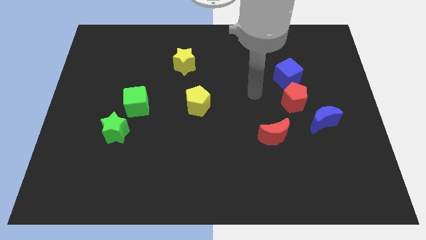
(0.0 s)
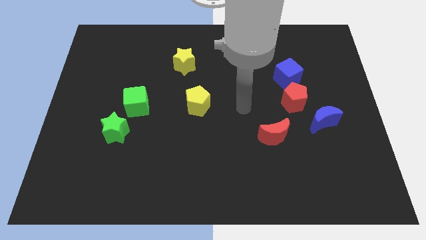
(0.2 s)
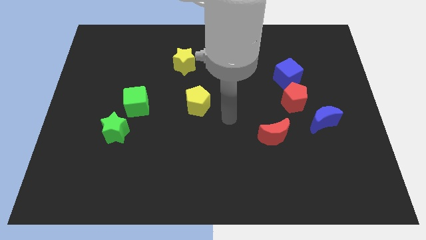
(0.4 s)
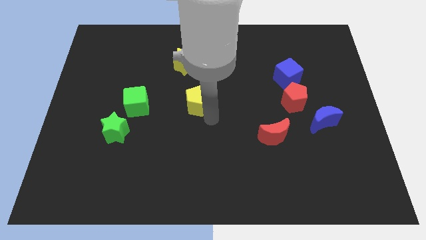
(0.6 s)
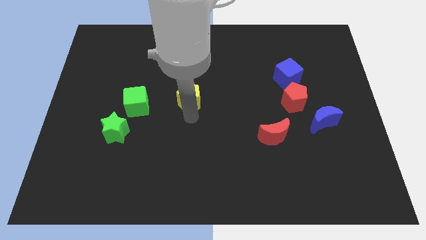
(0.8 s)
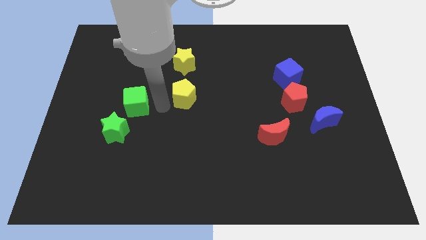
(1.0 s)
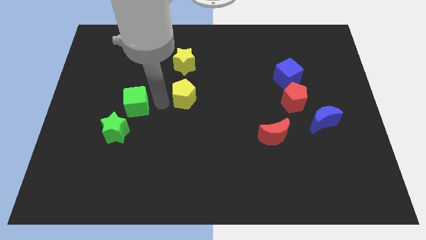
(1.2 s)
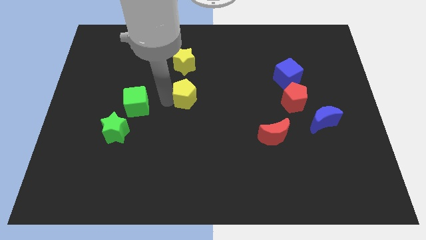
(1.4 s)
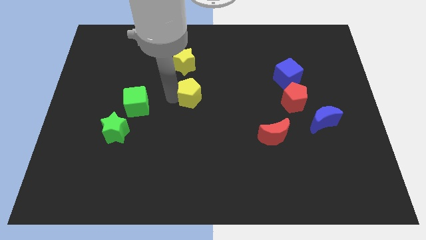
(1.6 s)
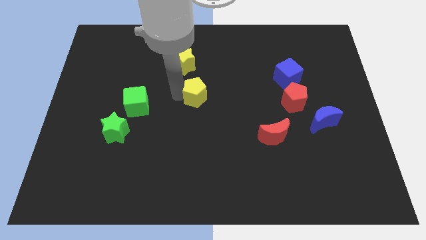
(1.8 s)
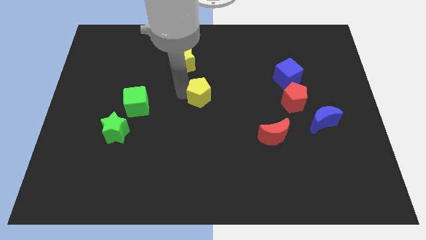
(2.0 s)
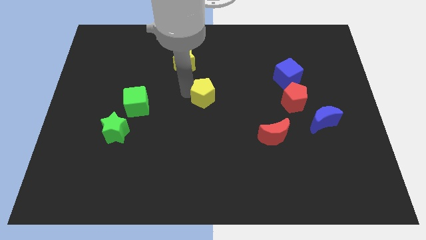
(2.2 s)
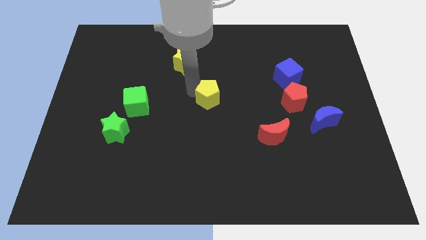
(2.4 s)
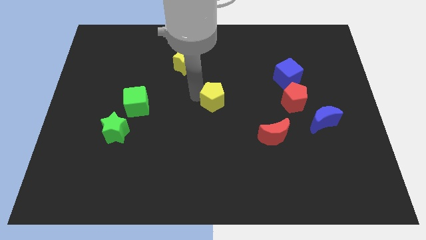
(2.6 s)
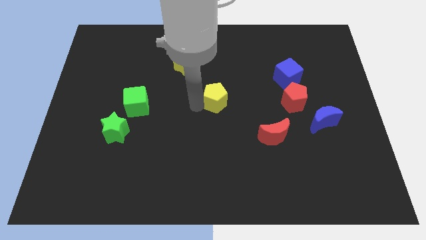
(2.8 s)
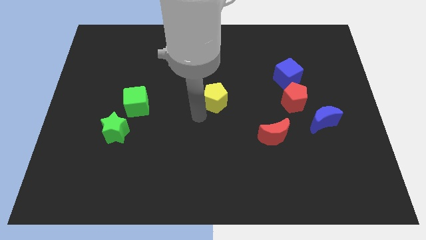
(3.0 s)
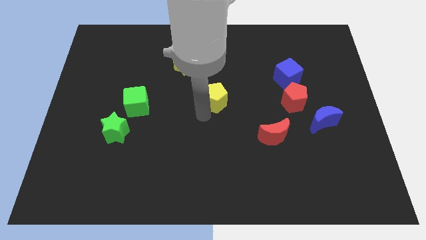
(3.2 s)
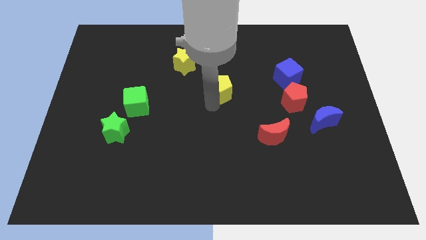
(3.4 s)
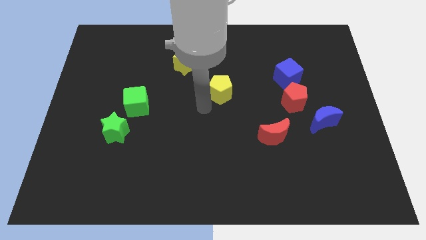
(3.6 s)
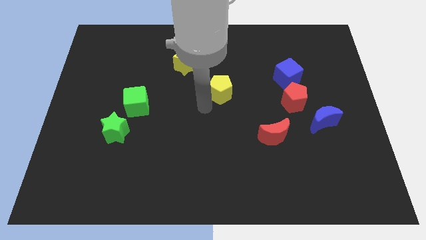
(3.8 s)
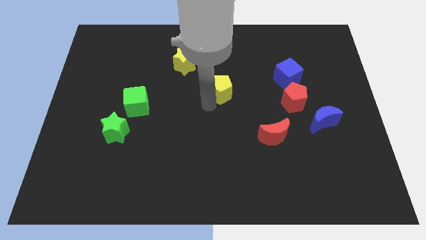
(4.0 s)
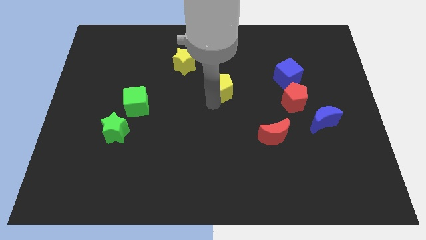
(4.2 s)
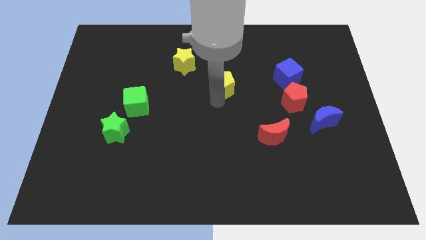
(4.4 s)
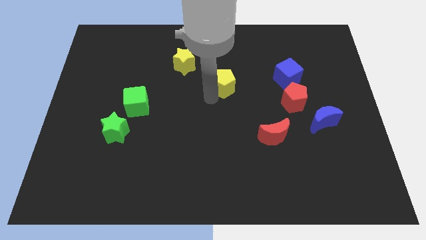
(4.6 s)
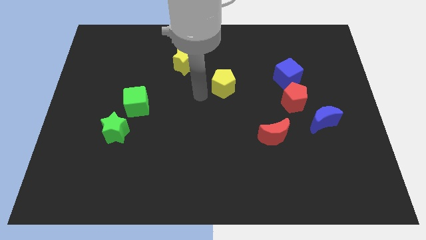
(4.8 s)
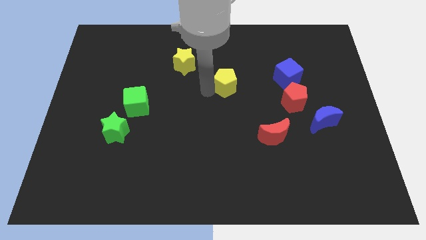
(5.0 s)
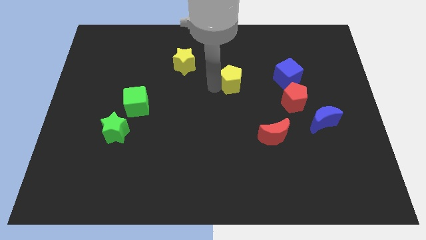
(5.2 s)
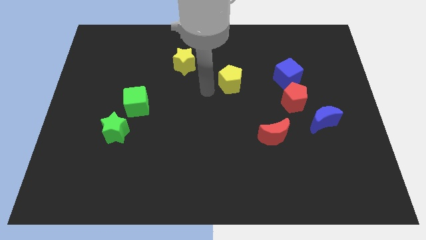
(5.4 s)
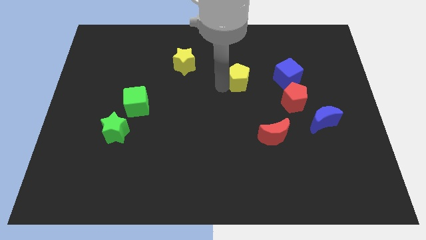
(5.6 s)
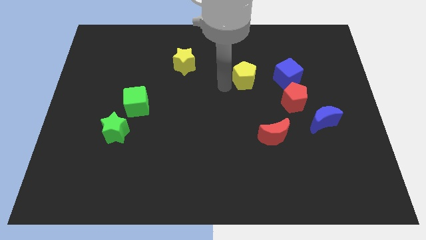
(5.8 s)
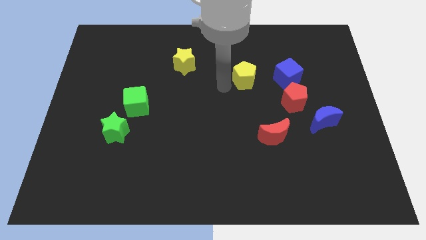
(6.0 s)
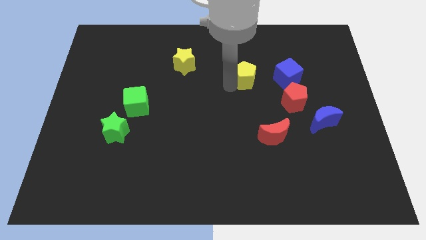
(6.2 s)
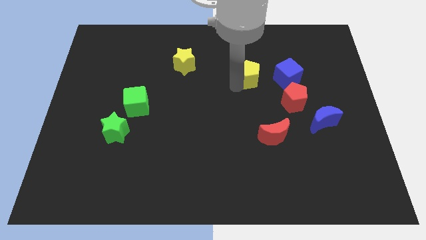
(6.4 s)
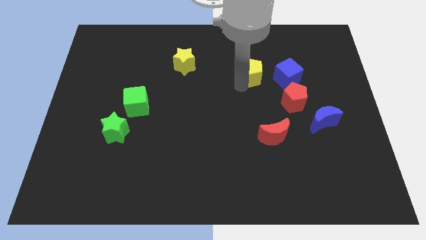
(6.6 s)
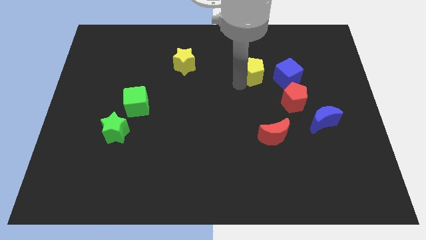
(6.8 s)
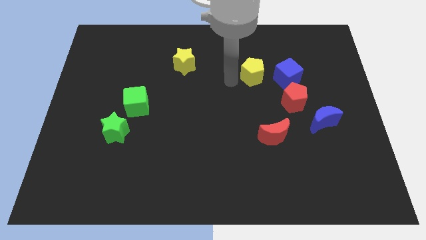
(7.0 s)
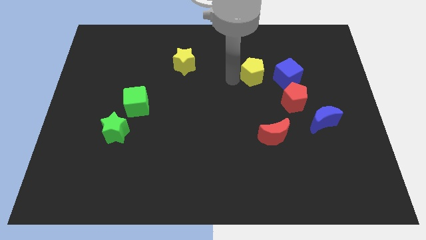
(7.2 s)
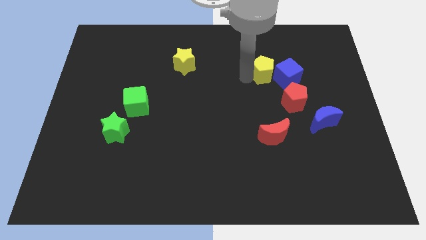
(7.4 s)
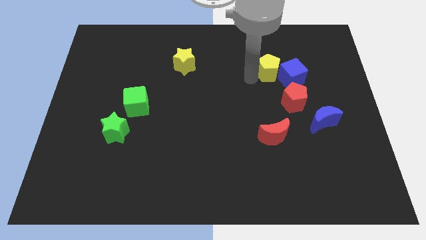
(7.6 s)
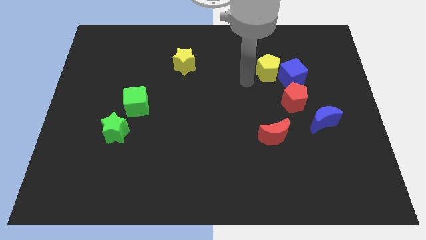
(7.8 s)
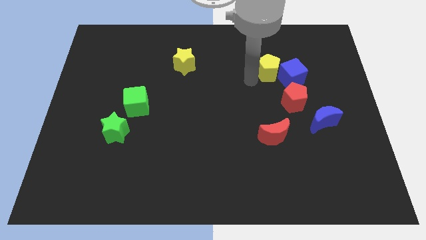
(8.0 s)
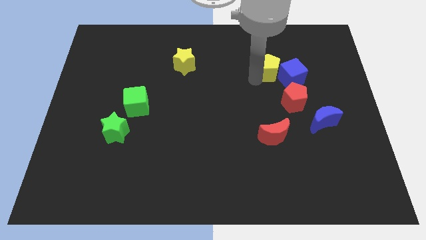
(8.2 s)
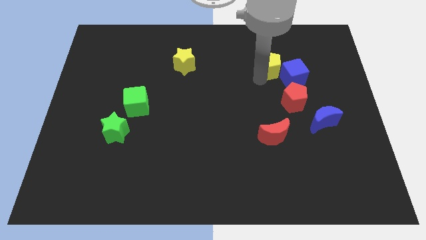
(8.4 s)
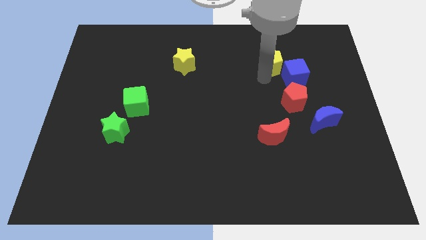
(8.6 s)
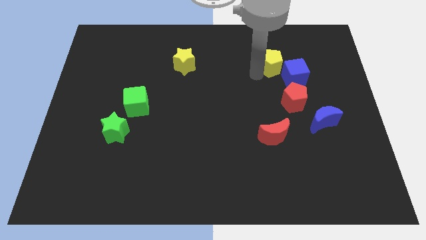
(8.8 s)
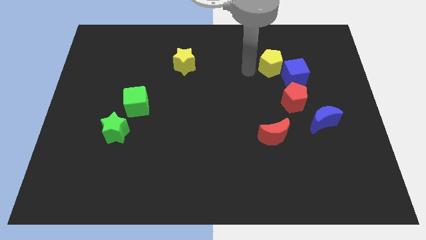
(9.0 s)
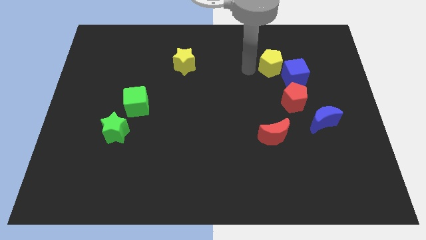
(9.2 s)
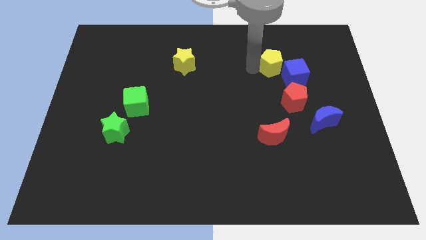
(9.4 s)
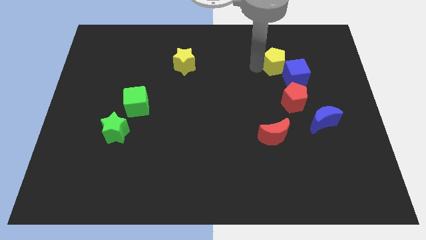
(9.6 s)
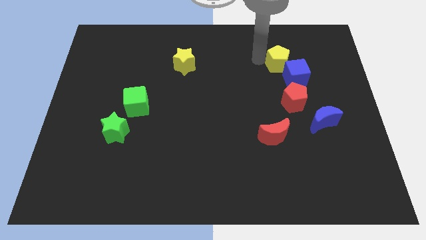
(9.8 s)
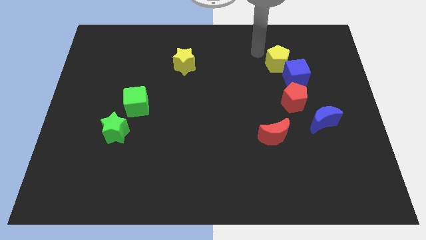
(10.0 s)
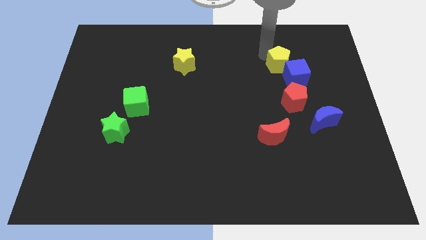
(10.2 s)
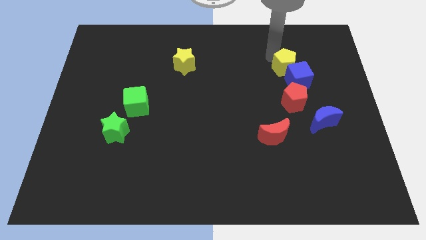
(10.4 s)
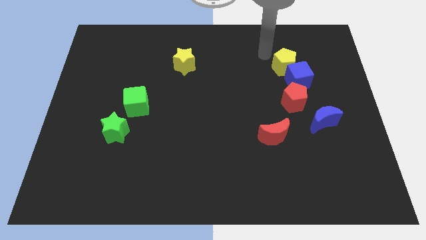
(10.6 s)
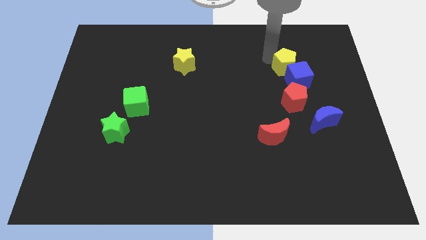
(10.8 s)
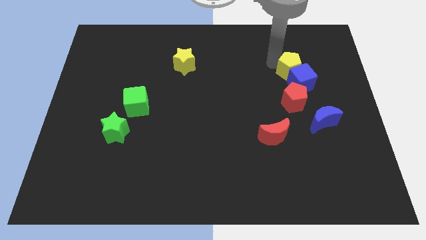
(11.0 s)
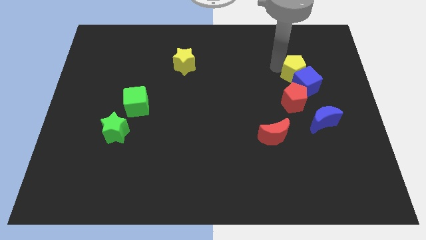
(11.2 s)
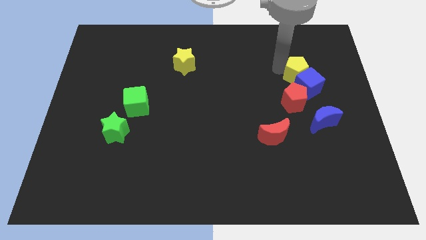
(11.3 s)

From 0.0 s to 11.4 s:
push the yellow pentagon right

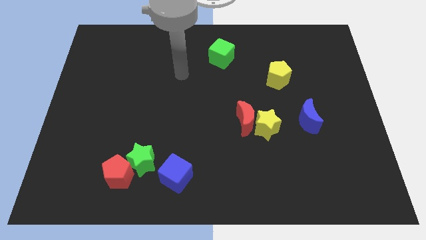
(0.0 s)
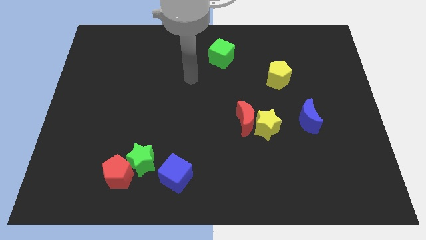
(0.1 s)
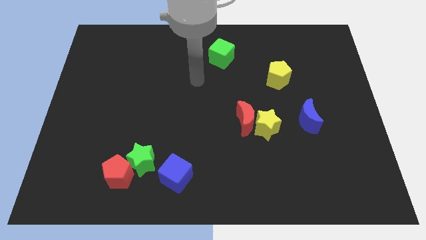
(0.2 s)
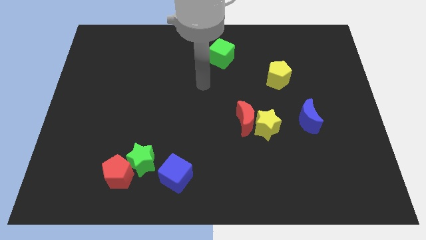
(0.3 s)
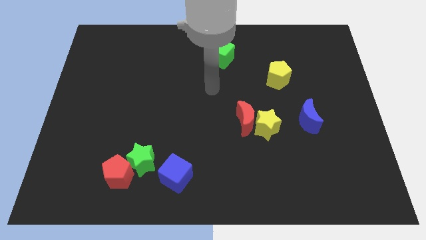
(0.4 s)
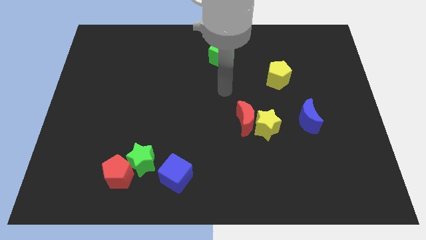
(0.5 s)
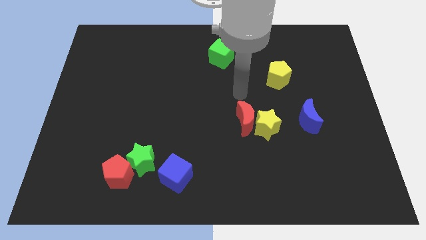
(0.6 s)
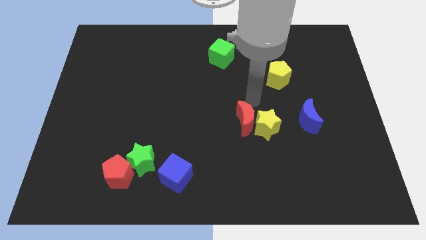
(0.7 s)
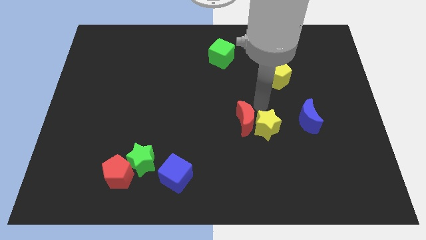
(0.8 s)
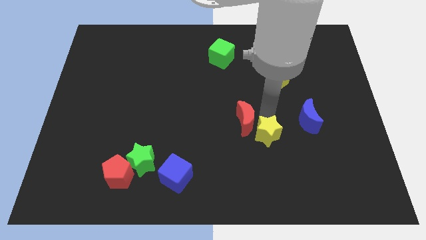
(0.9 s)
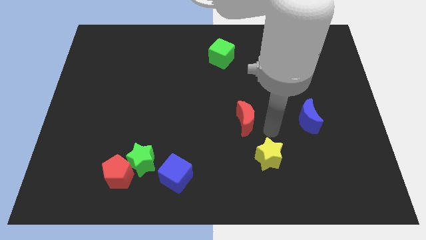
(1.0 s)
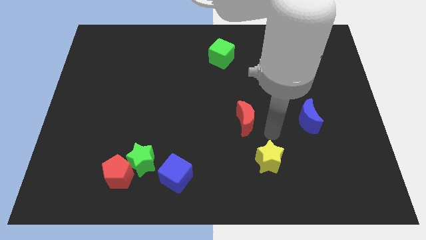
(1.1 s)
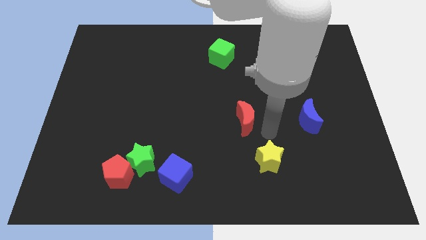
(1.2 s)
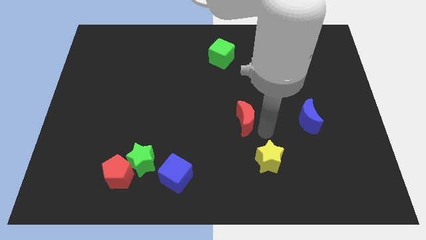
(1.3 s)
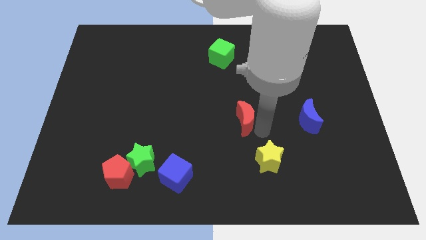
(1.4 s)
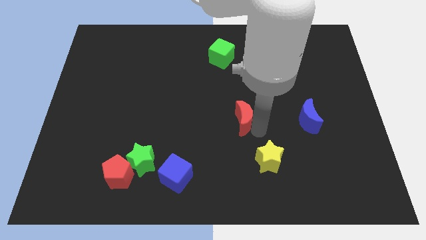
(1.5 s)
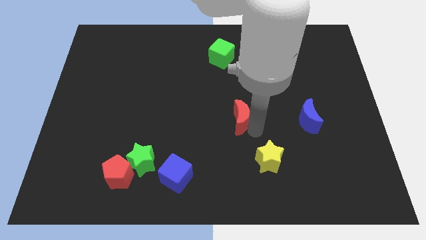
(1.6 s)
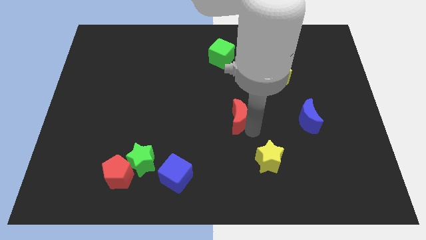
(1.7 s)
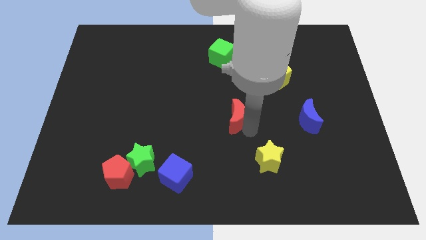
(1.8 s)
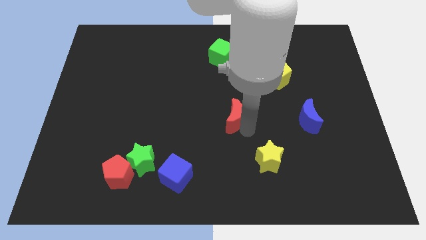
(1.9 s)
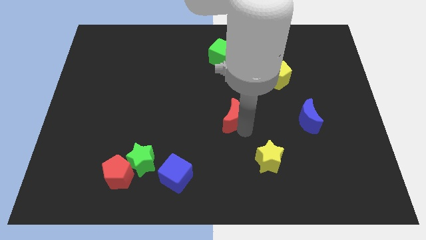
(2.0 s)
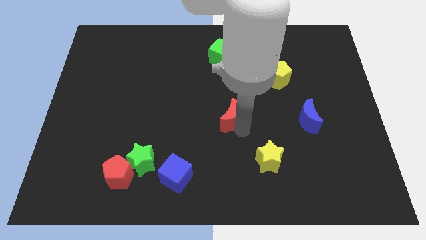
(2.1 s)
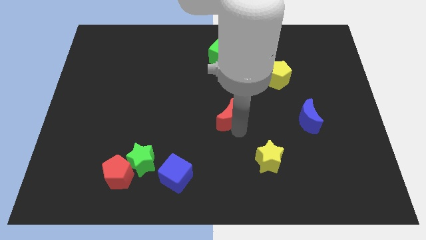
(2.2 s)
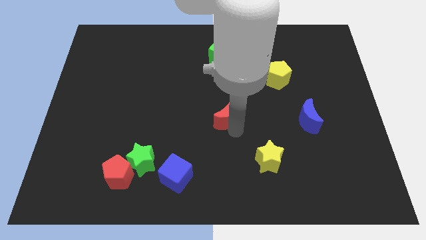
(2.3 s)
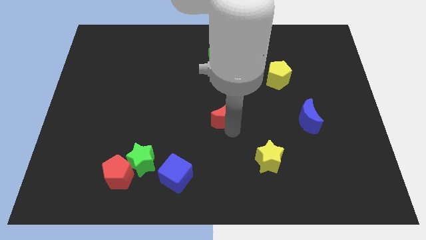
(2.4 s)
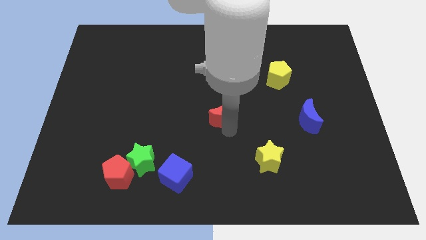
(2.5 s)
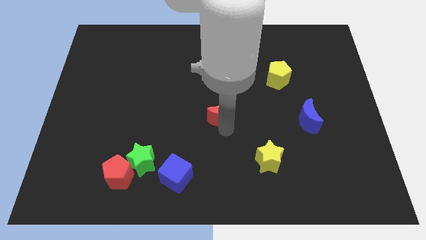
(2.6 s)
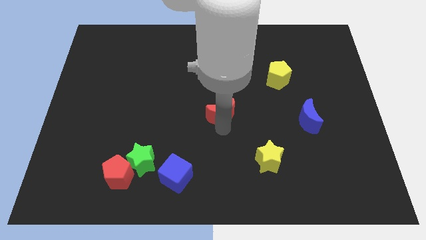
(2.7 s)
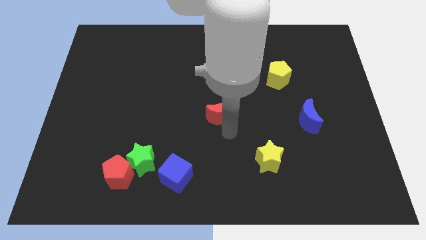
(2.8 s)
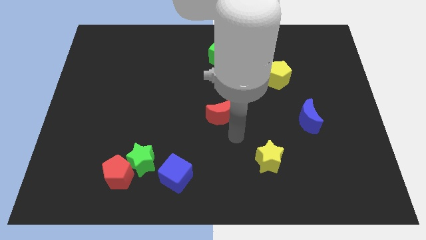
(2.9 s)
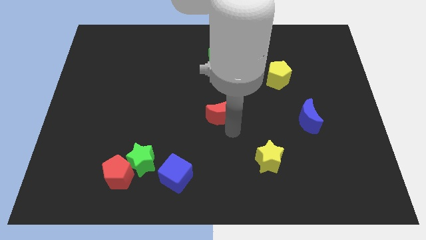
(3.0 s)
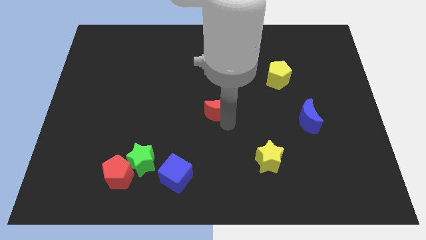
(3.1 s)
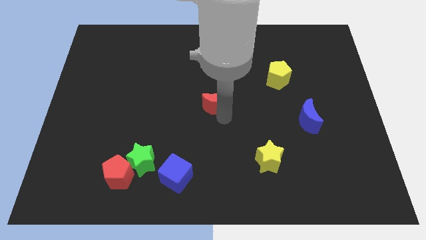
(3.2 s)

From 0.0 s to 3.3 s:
slide the red moon up and left diagonally somewhat
